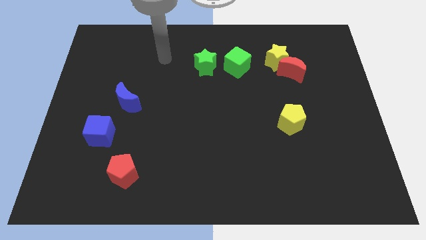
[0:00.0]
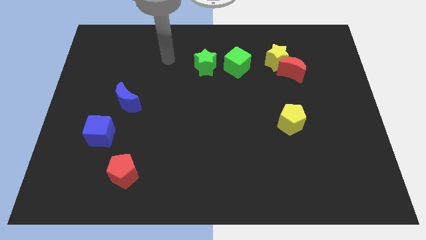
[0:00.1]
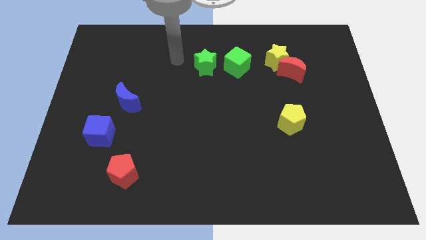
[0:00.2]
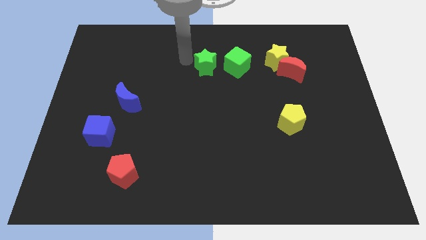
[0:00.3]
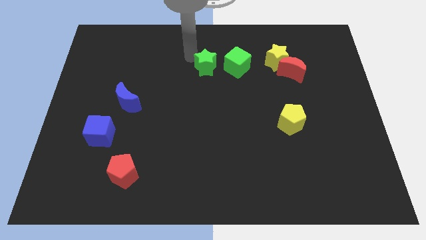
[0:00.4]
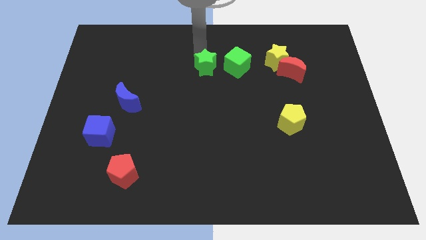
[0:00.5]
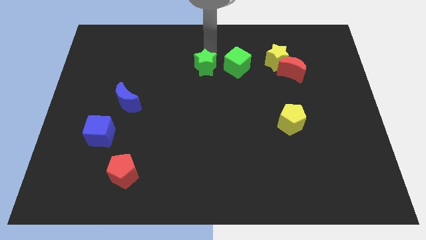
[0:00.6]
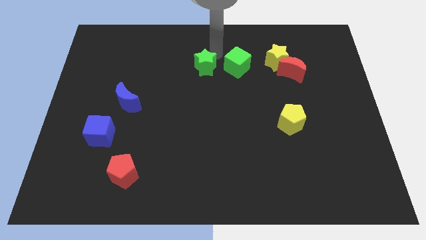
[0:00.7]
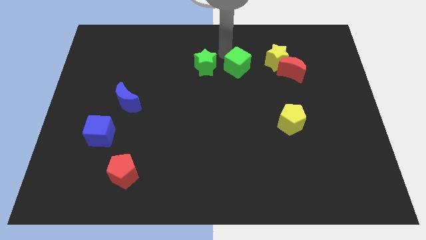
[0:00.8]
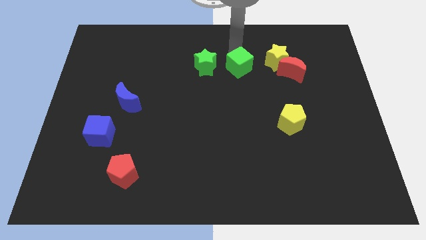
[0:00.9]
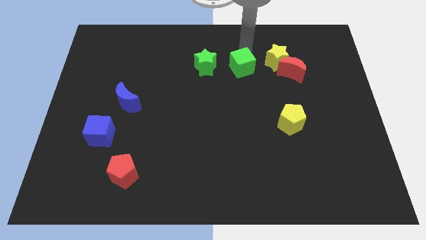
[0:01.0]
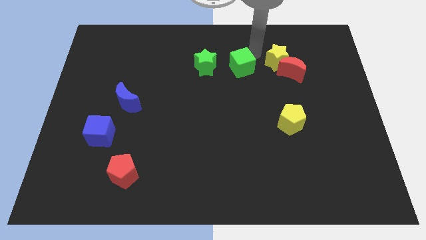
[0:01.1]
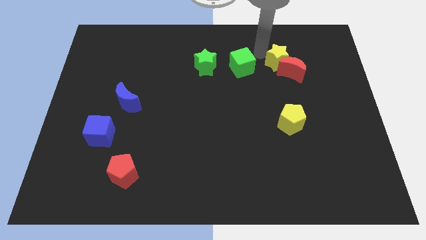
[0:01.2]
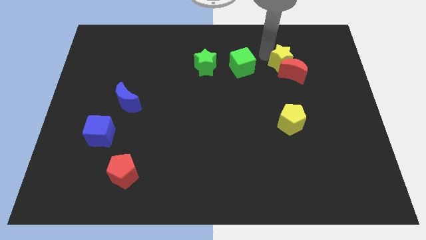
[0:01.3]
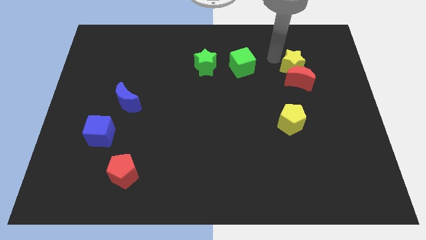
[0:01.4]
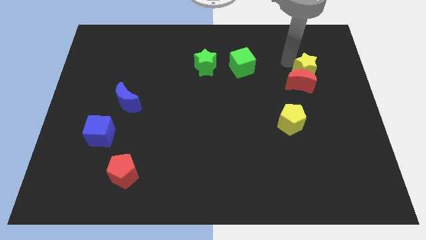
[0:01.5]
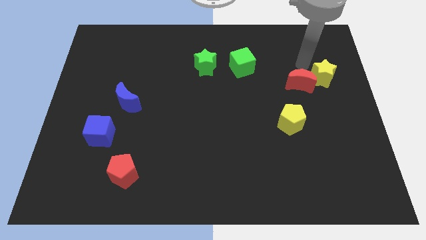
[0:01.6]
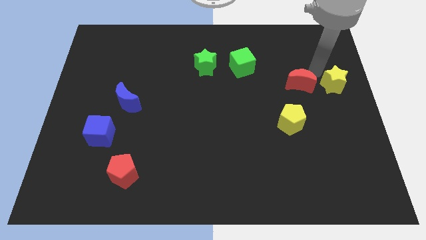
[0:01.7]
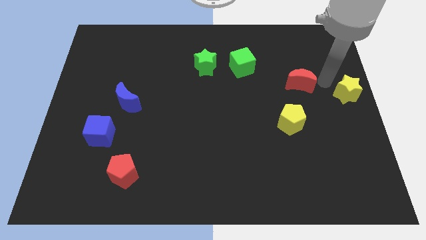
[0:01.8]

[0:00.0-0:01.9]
separate the red moon from the yellow star

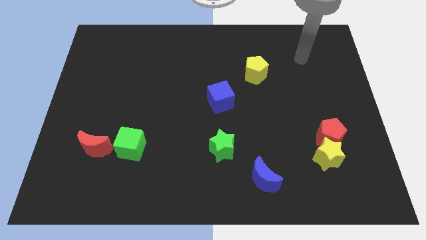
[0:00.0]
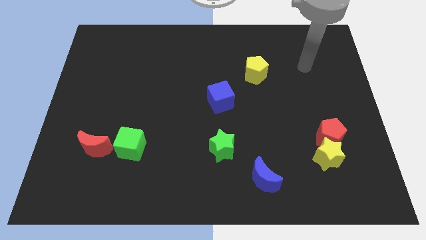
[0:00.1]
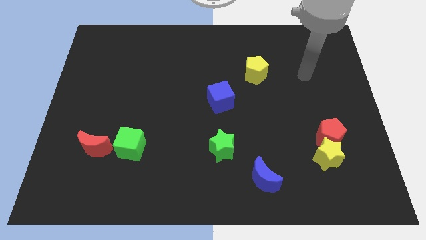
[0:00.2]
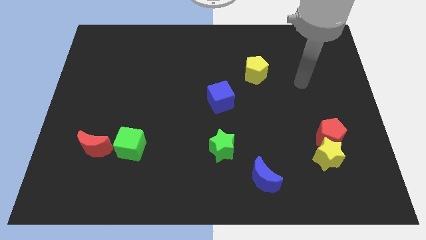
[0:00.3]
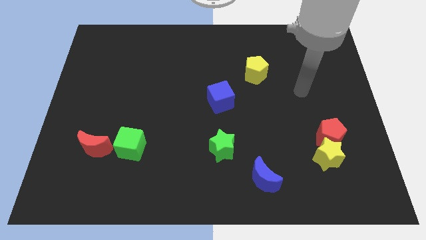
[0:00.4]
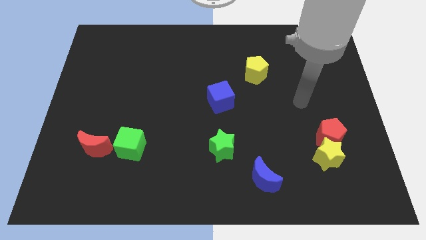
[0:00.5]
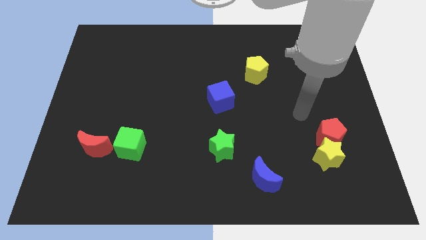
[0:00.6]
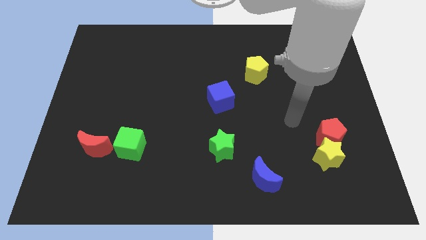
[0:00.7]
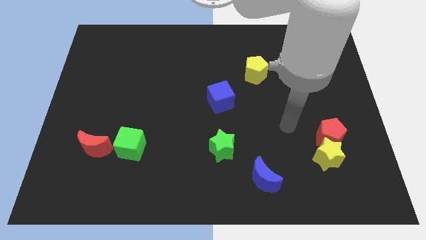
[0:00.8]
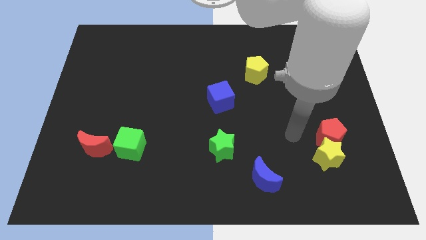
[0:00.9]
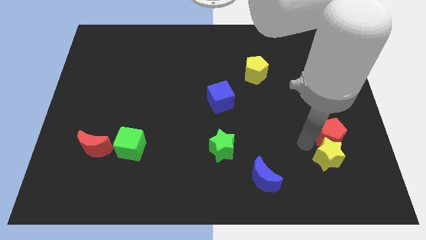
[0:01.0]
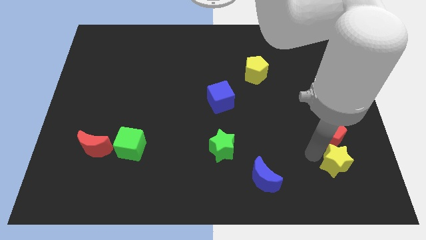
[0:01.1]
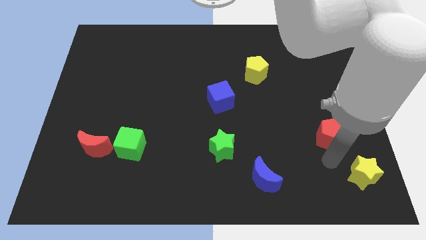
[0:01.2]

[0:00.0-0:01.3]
pull the red pentagon apart from the yellow star

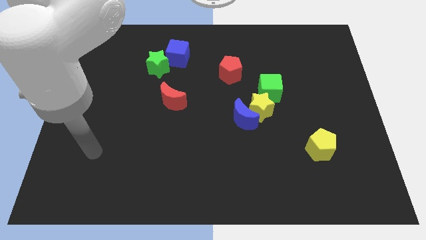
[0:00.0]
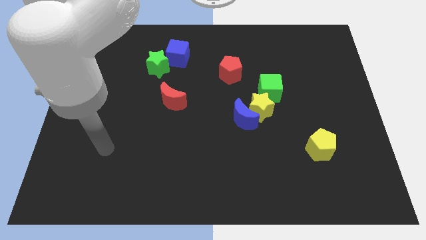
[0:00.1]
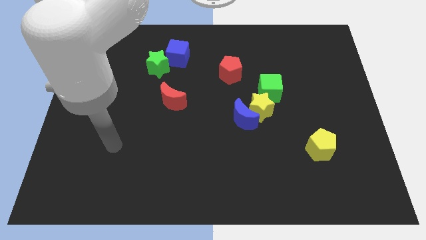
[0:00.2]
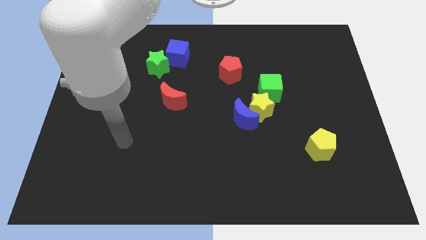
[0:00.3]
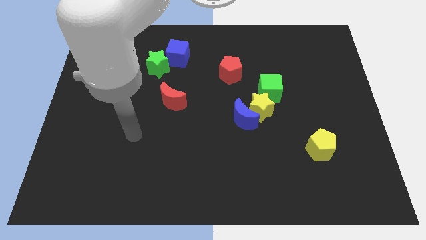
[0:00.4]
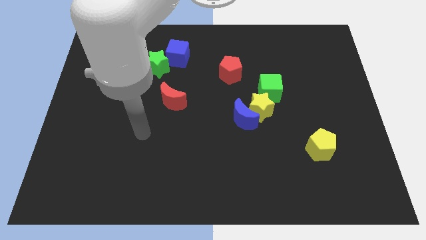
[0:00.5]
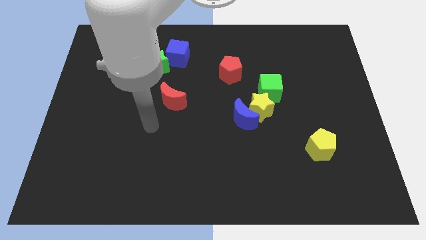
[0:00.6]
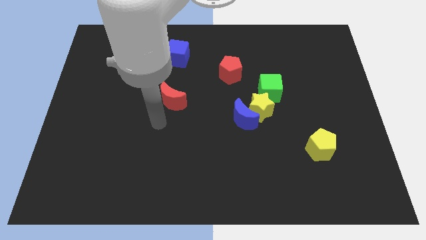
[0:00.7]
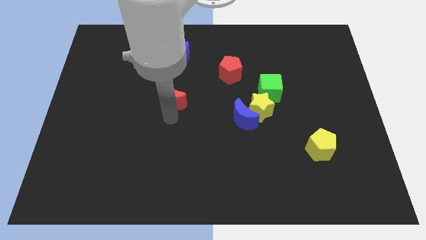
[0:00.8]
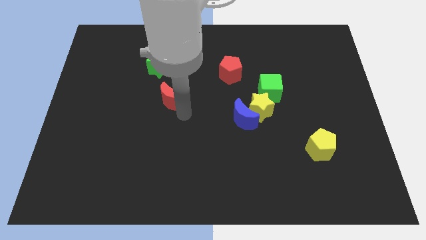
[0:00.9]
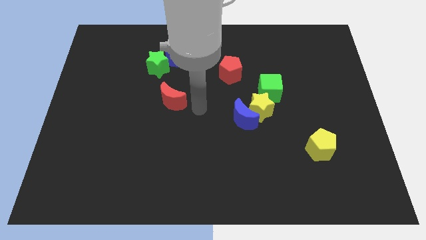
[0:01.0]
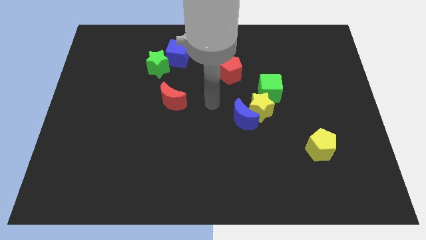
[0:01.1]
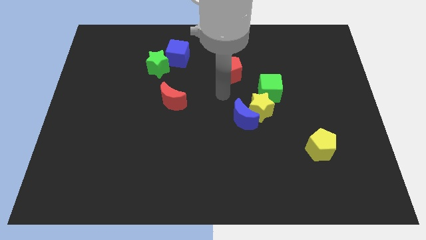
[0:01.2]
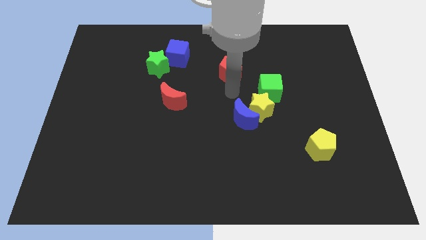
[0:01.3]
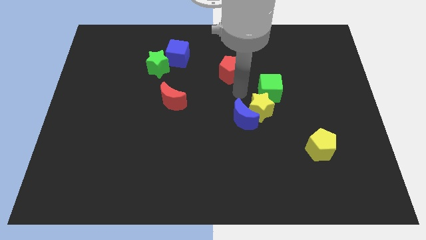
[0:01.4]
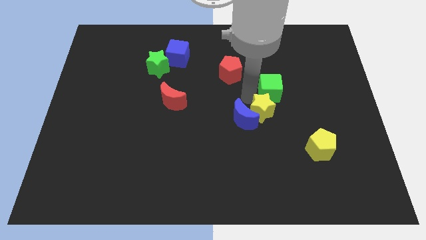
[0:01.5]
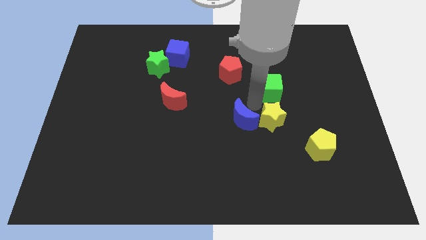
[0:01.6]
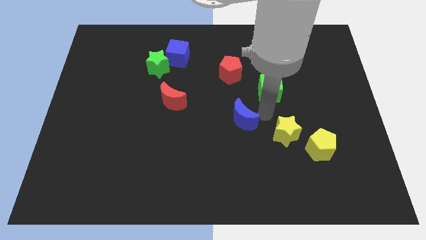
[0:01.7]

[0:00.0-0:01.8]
separate the blue moon from the yellow star

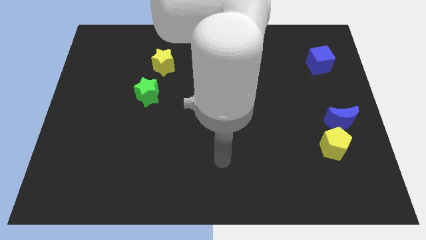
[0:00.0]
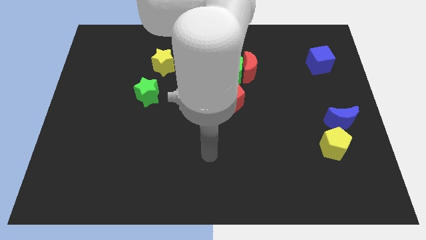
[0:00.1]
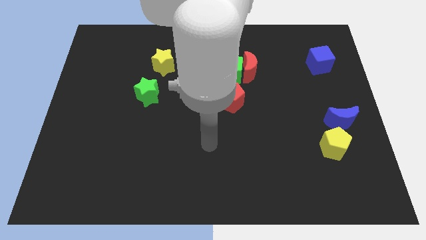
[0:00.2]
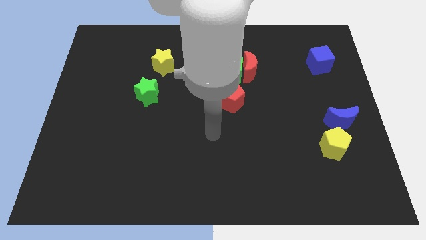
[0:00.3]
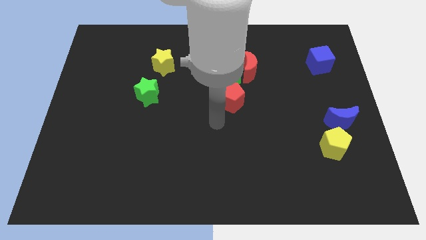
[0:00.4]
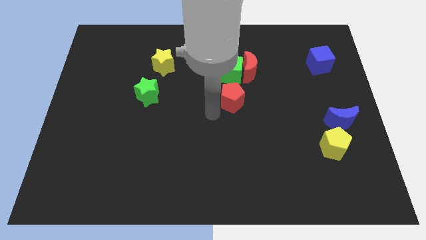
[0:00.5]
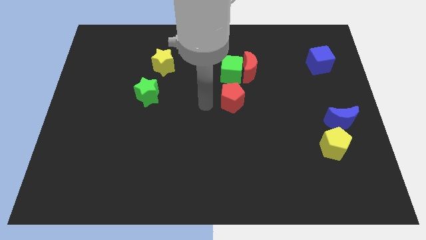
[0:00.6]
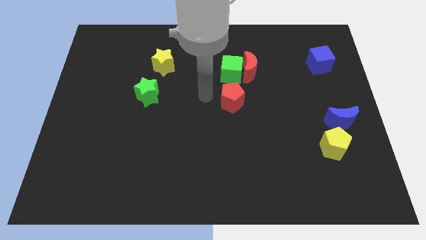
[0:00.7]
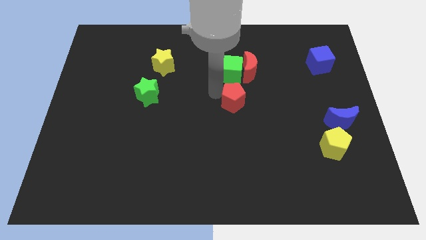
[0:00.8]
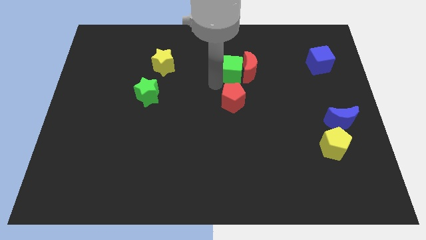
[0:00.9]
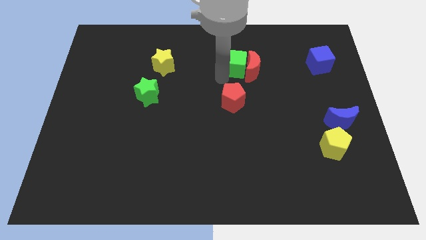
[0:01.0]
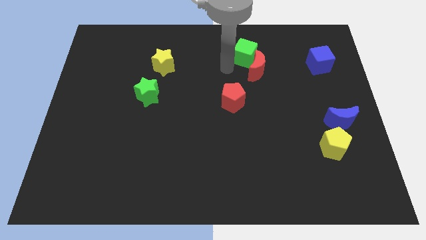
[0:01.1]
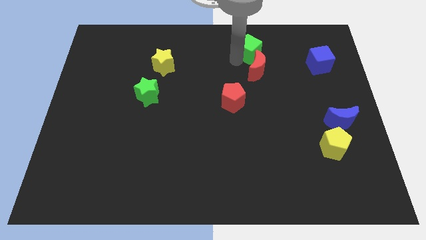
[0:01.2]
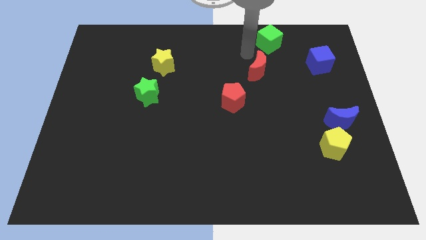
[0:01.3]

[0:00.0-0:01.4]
separate the red moon from the green cube

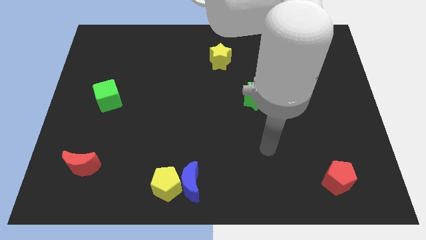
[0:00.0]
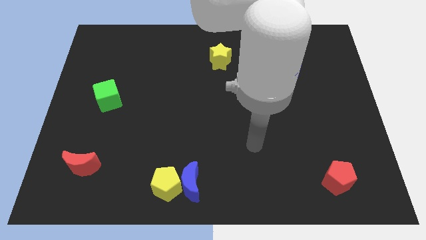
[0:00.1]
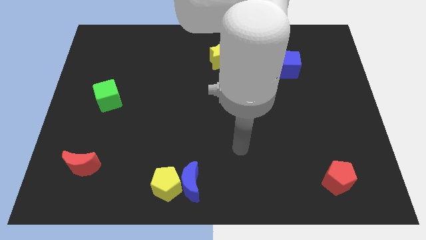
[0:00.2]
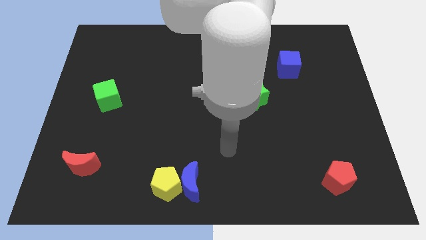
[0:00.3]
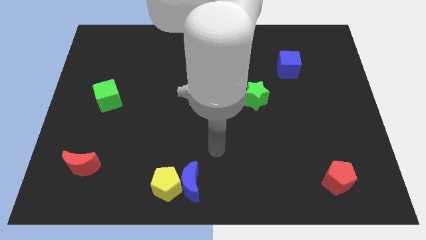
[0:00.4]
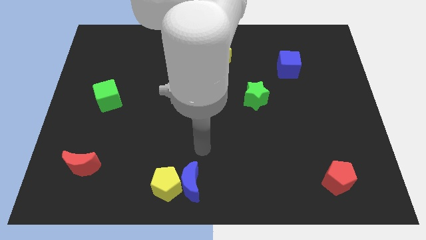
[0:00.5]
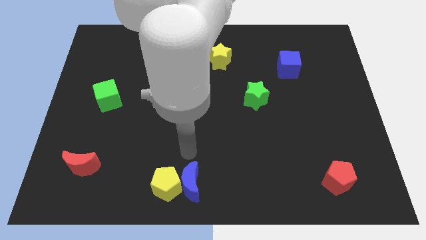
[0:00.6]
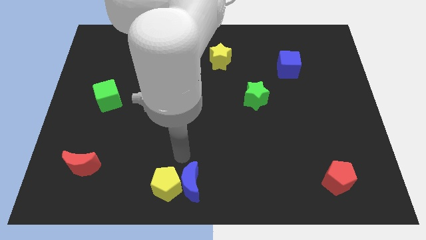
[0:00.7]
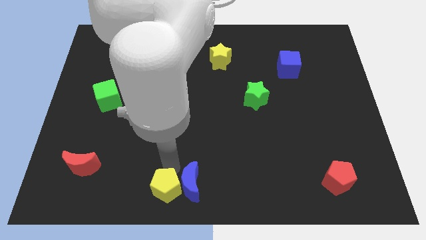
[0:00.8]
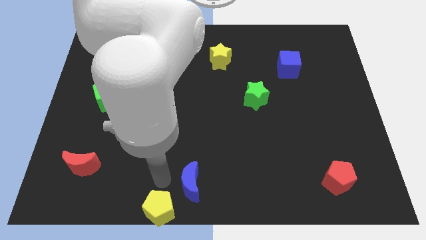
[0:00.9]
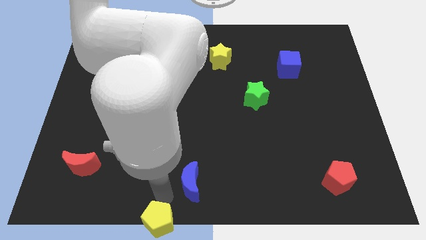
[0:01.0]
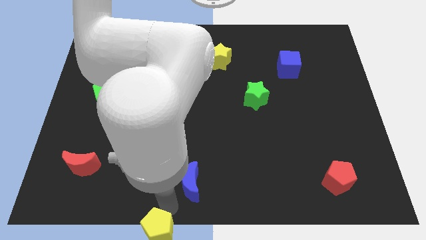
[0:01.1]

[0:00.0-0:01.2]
separate the blue moon from the yellow pentagon

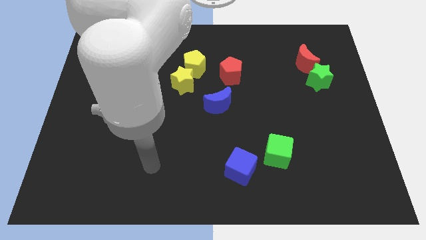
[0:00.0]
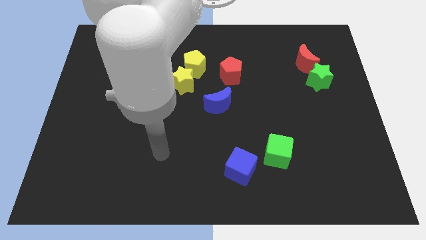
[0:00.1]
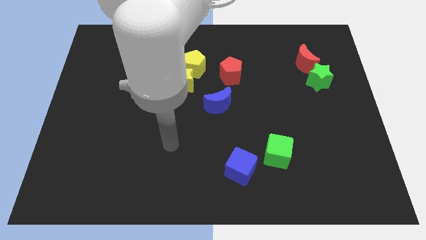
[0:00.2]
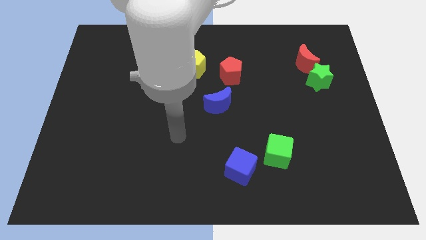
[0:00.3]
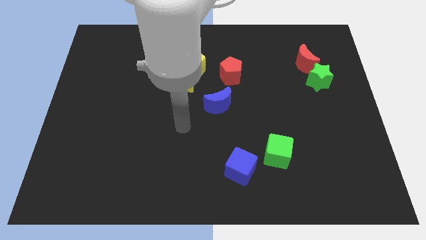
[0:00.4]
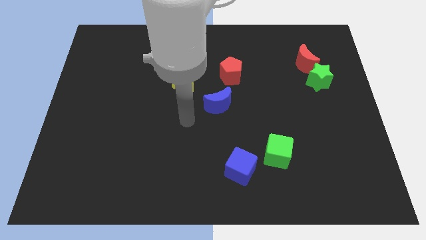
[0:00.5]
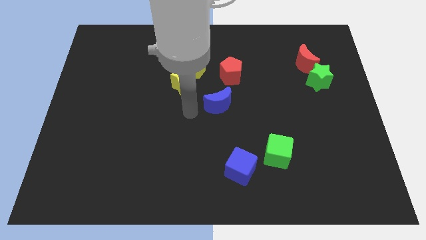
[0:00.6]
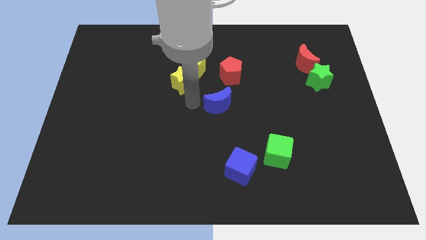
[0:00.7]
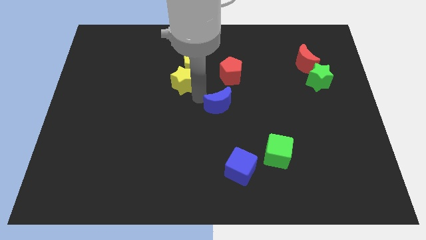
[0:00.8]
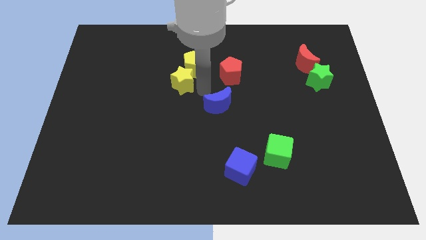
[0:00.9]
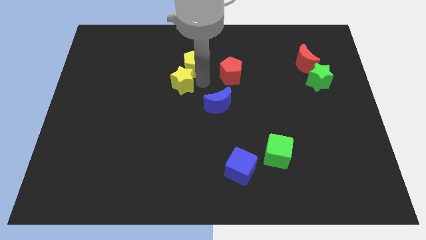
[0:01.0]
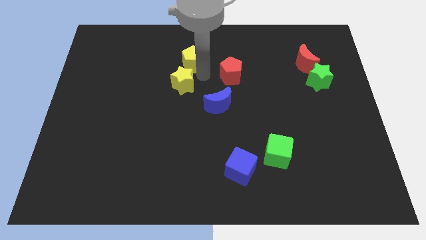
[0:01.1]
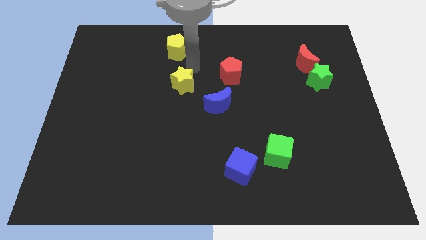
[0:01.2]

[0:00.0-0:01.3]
move the yellow star away from the yellow pentagon

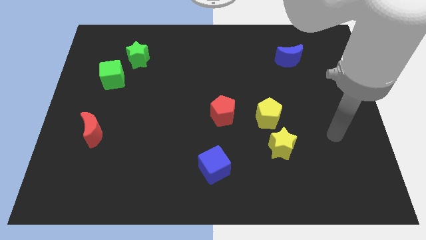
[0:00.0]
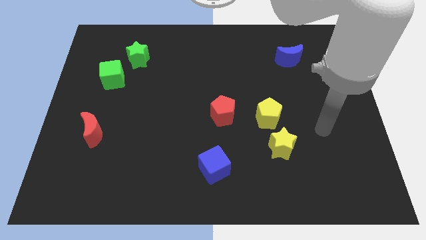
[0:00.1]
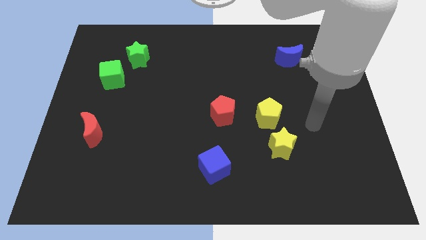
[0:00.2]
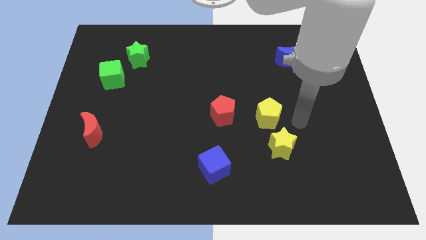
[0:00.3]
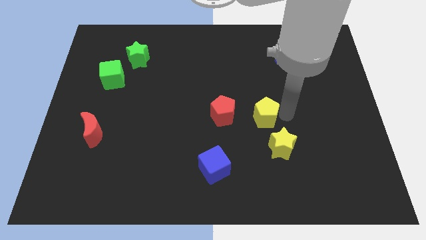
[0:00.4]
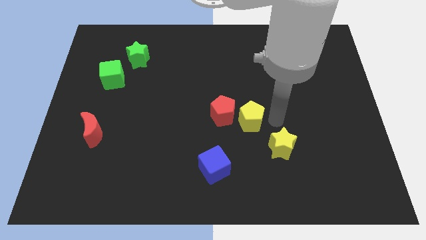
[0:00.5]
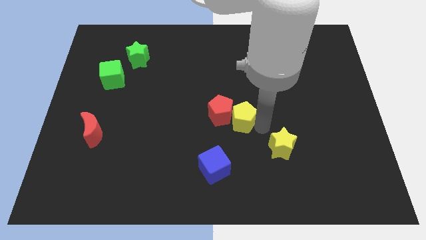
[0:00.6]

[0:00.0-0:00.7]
separate the yellow star from the yellow pentagon
